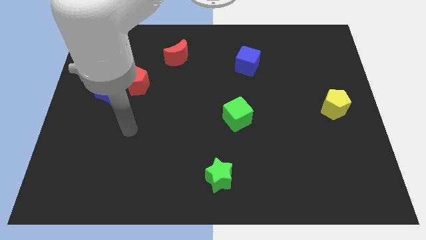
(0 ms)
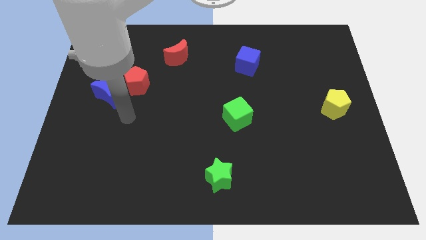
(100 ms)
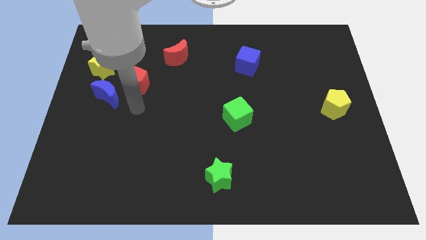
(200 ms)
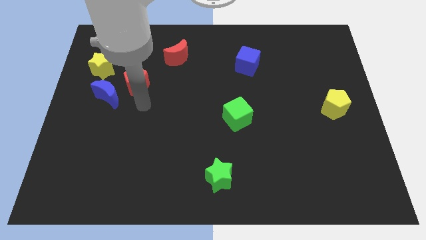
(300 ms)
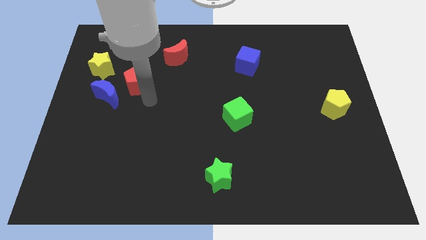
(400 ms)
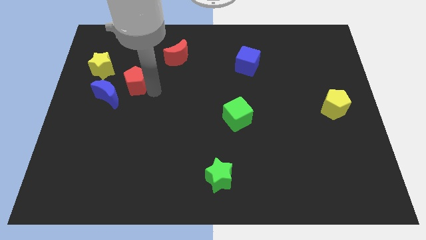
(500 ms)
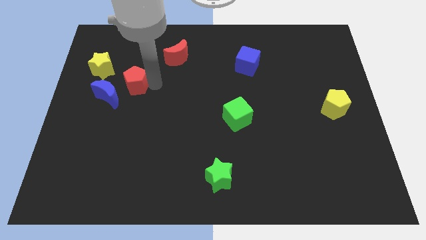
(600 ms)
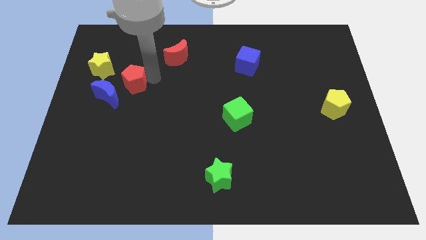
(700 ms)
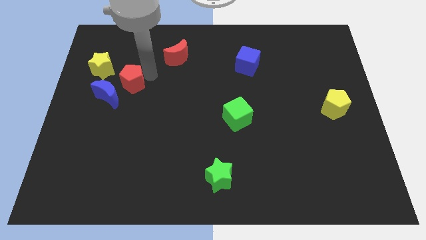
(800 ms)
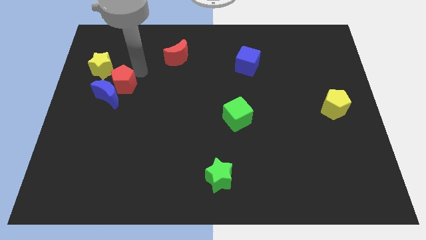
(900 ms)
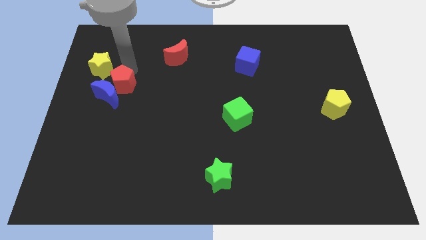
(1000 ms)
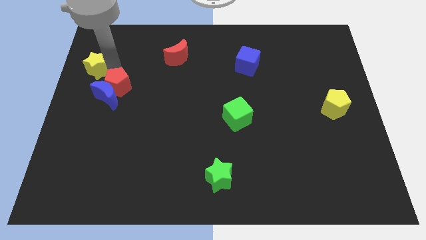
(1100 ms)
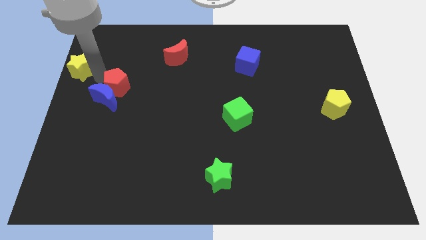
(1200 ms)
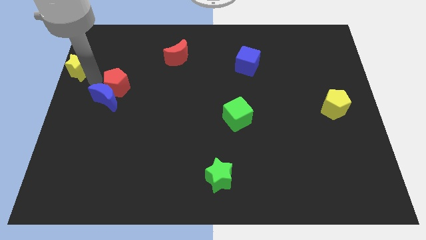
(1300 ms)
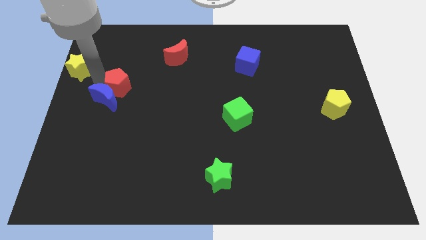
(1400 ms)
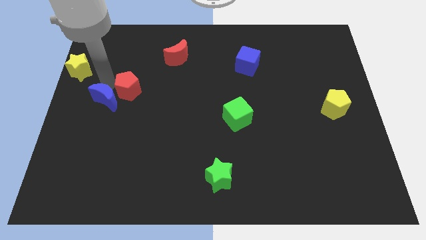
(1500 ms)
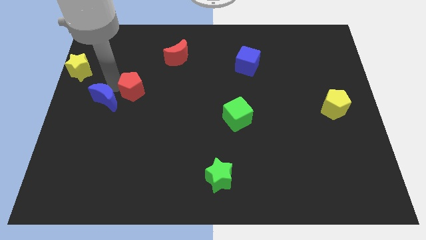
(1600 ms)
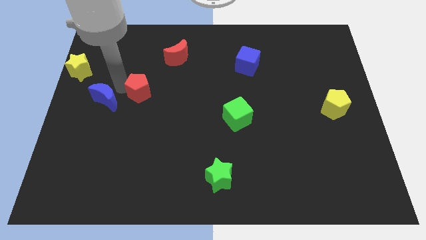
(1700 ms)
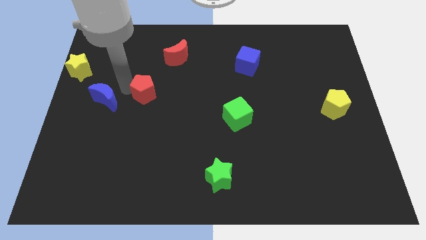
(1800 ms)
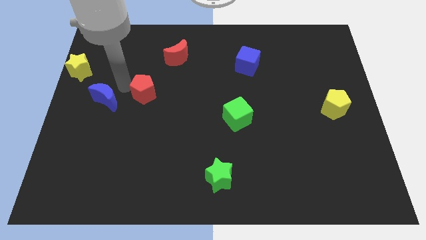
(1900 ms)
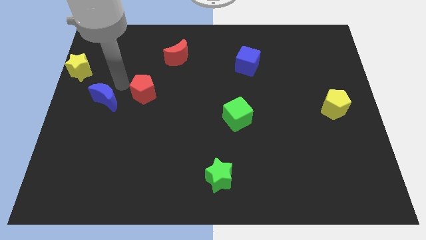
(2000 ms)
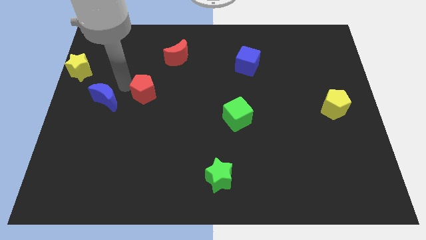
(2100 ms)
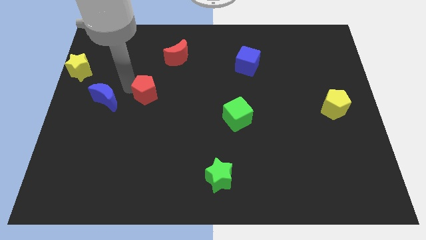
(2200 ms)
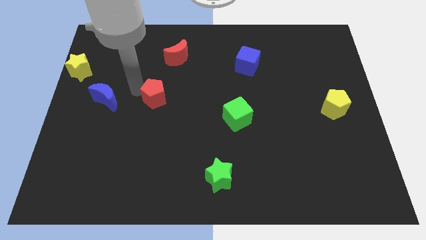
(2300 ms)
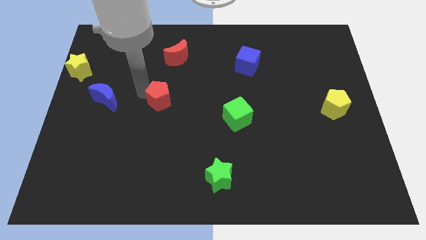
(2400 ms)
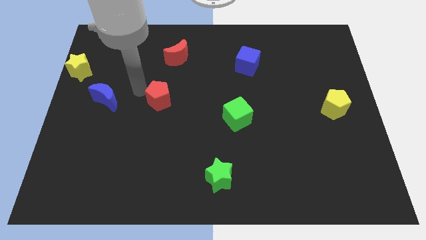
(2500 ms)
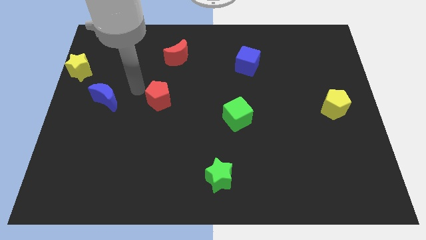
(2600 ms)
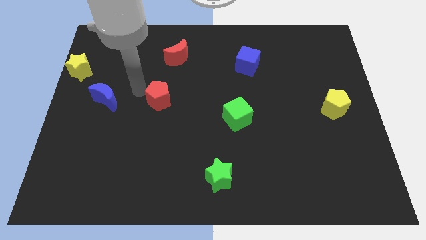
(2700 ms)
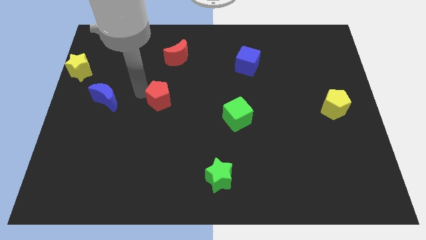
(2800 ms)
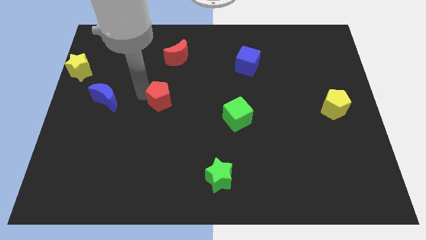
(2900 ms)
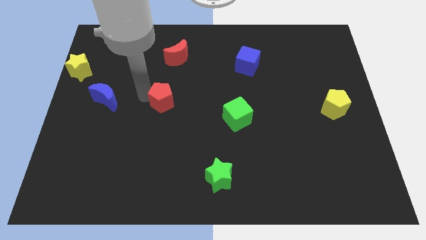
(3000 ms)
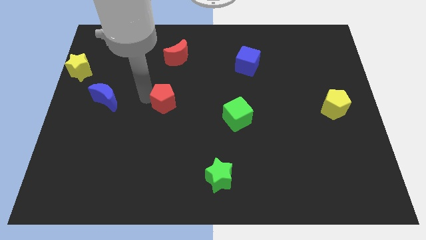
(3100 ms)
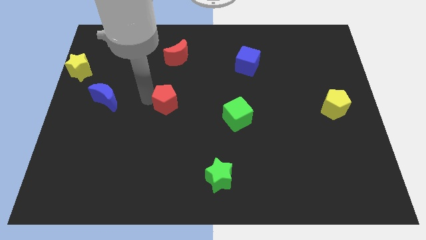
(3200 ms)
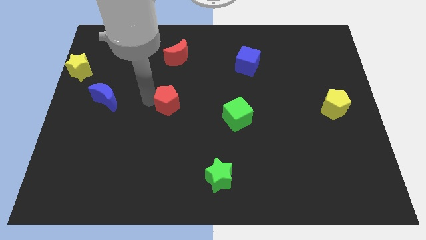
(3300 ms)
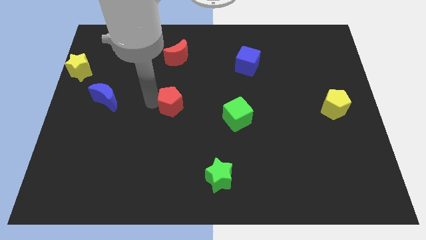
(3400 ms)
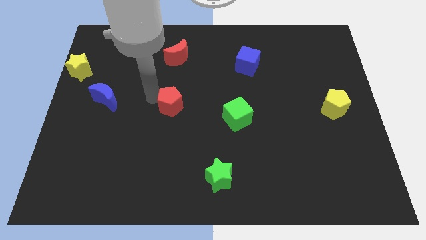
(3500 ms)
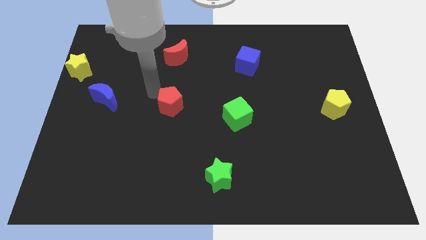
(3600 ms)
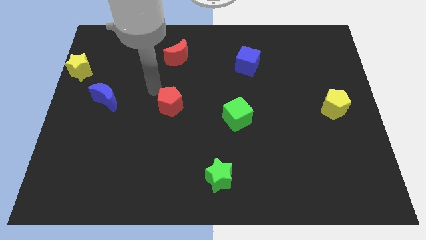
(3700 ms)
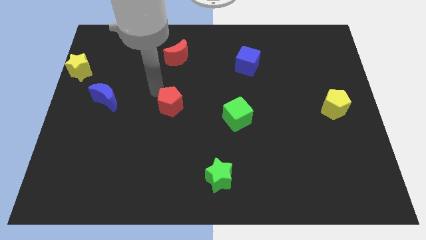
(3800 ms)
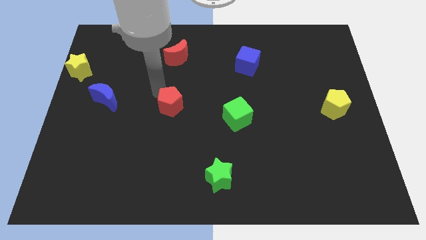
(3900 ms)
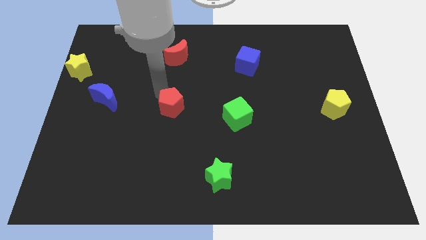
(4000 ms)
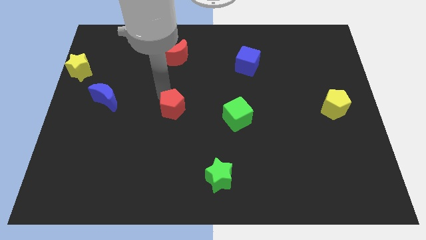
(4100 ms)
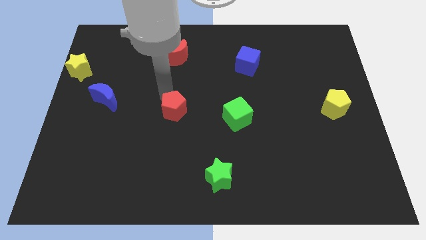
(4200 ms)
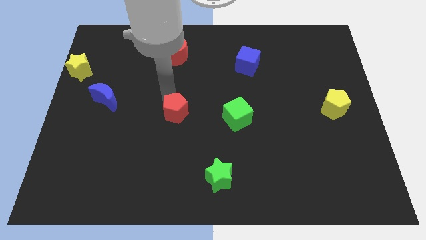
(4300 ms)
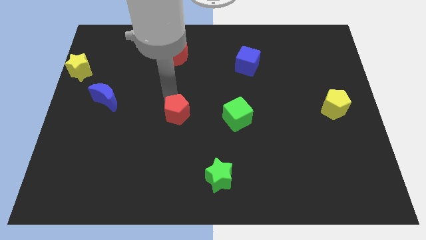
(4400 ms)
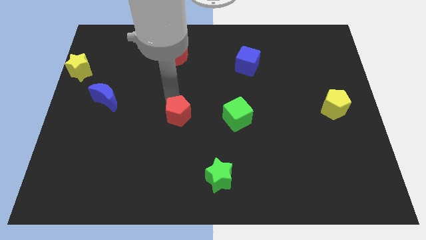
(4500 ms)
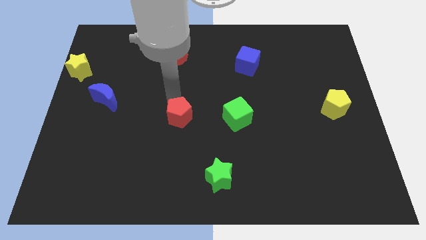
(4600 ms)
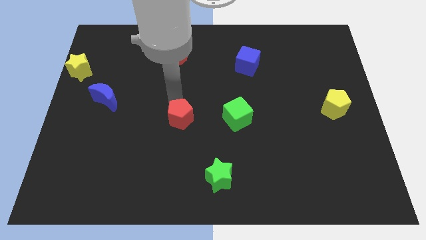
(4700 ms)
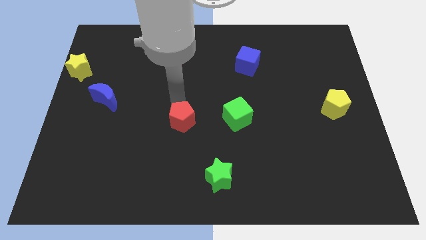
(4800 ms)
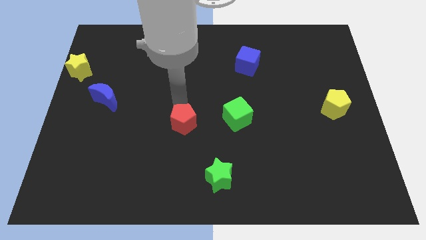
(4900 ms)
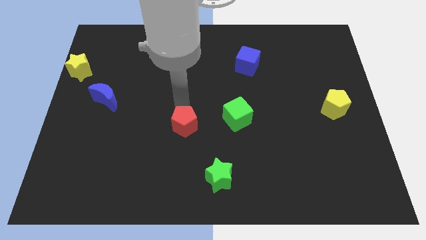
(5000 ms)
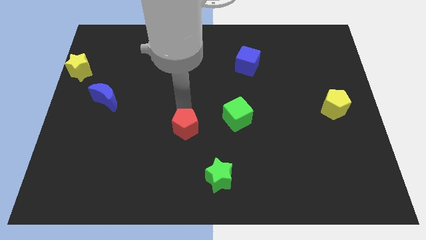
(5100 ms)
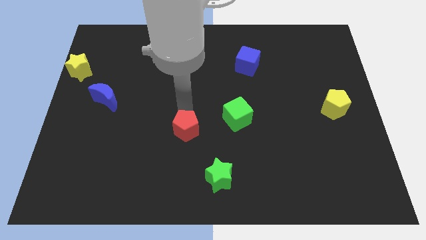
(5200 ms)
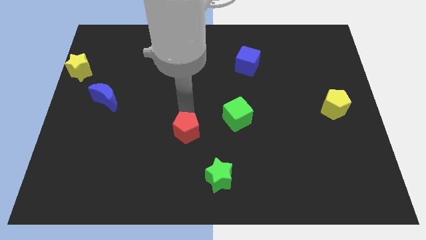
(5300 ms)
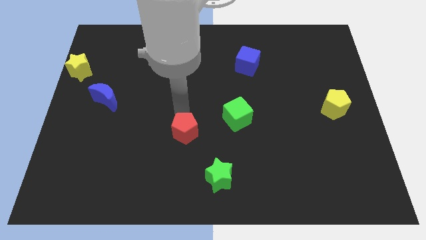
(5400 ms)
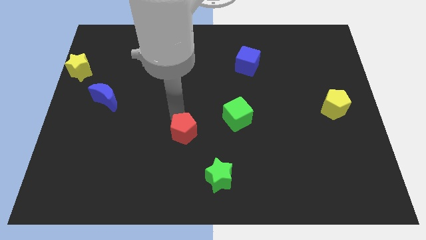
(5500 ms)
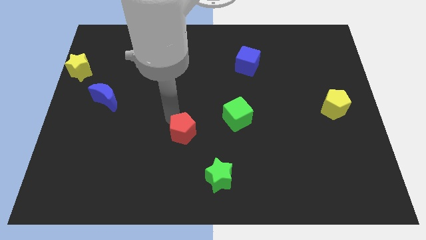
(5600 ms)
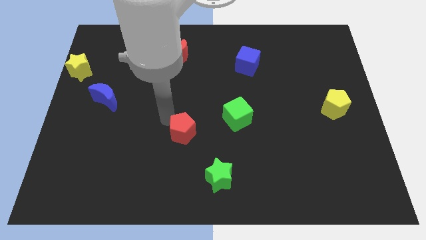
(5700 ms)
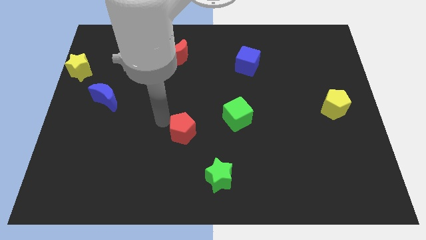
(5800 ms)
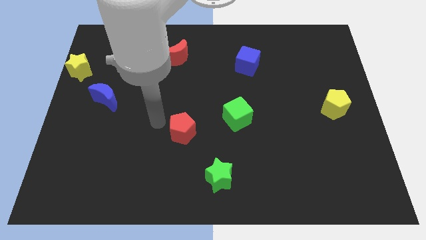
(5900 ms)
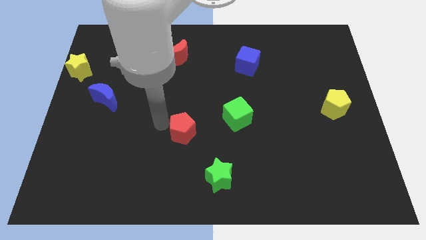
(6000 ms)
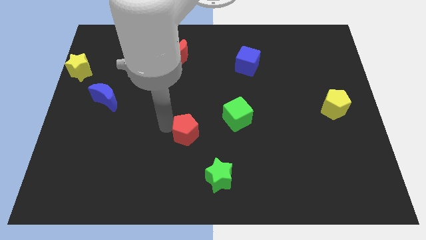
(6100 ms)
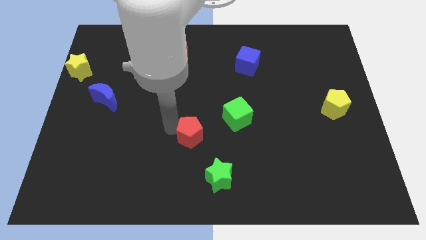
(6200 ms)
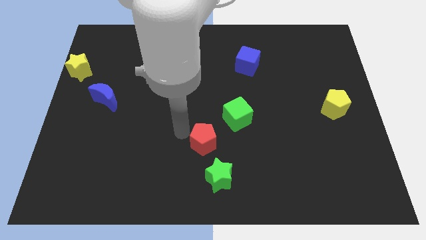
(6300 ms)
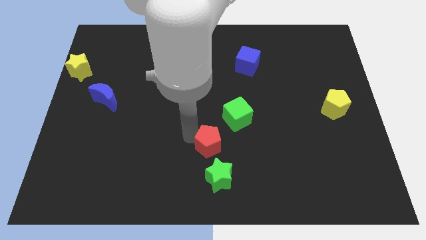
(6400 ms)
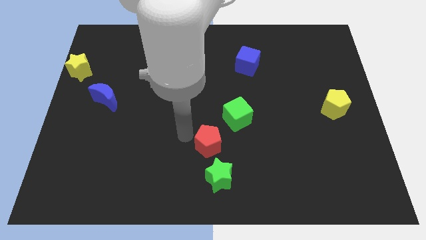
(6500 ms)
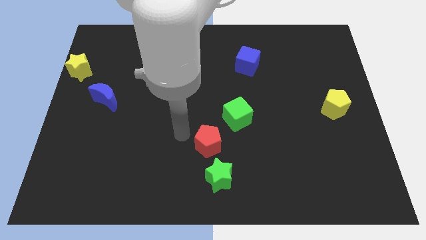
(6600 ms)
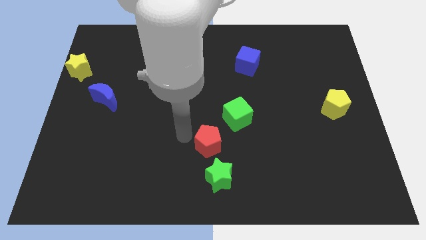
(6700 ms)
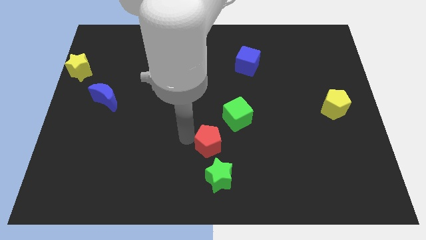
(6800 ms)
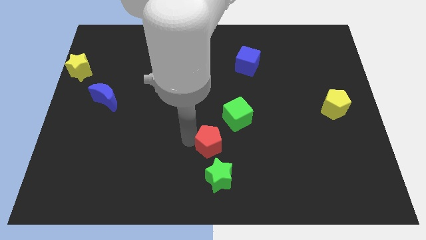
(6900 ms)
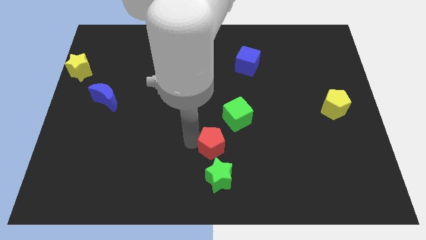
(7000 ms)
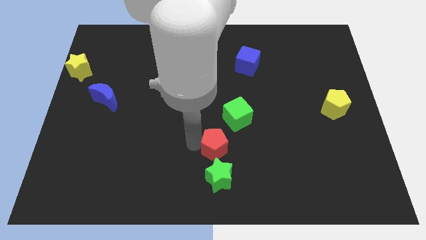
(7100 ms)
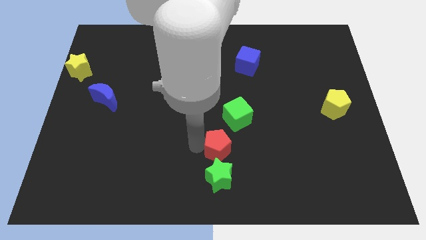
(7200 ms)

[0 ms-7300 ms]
move the red pentagon below the green cube
